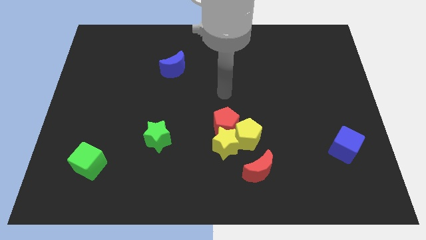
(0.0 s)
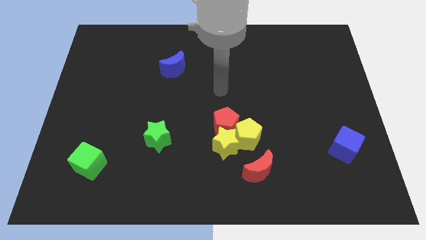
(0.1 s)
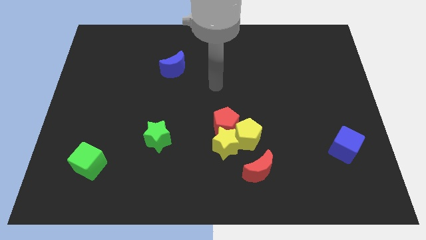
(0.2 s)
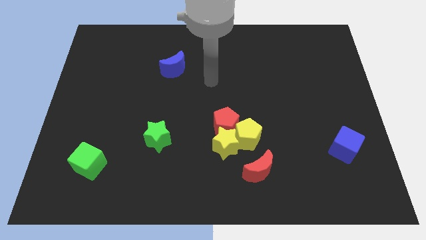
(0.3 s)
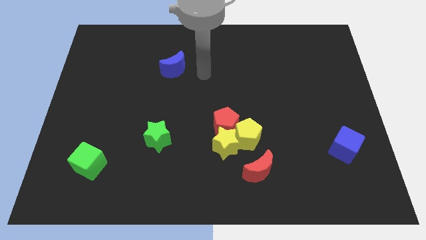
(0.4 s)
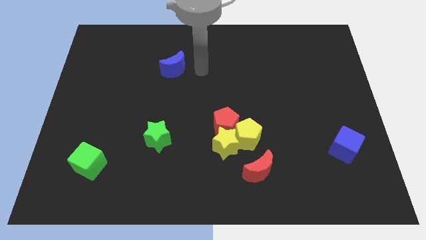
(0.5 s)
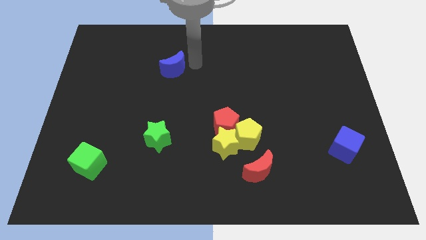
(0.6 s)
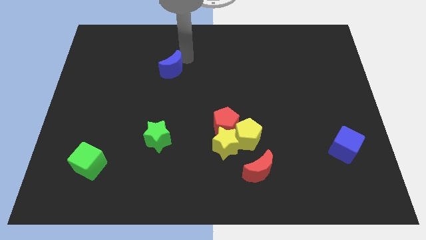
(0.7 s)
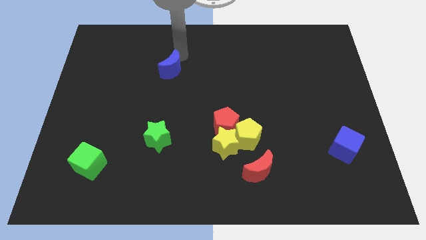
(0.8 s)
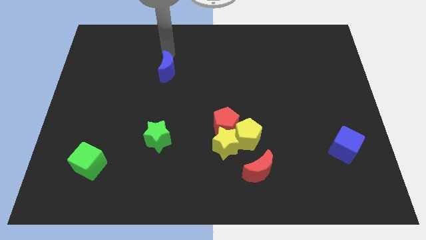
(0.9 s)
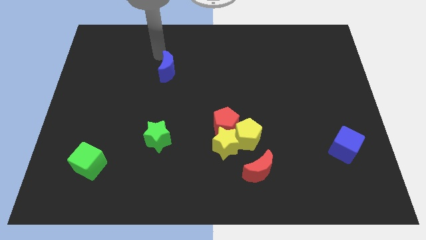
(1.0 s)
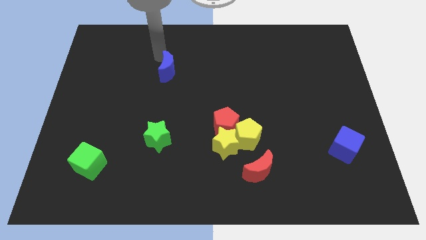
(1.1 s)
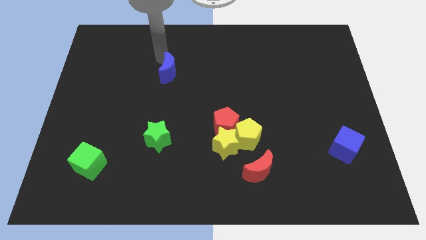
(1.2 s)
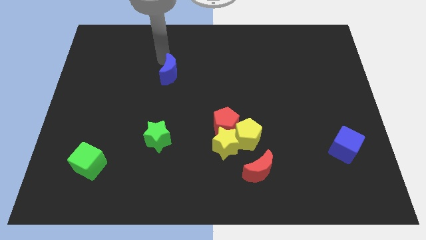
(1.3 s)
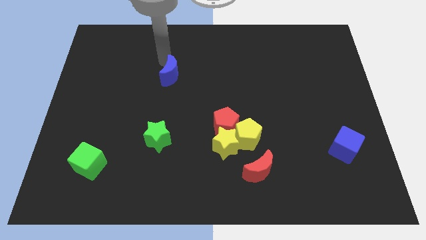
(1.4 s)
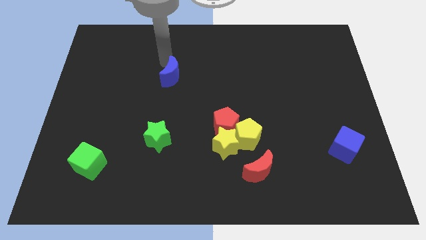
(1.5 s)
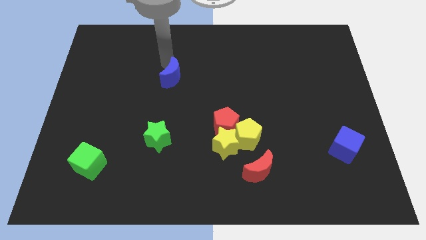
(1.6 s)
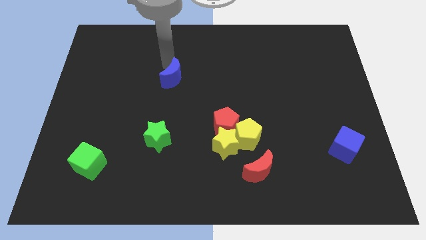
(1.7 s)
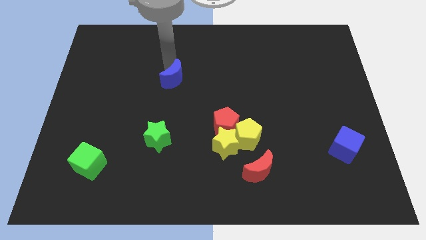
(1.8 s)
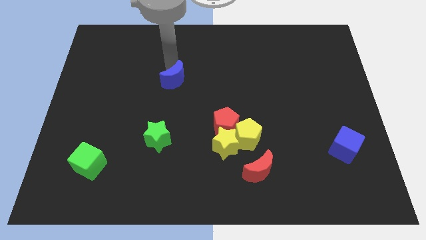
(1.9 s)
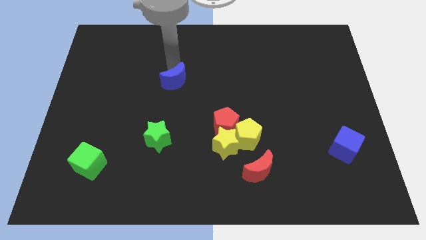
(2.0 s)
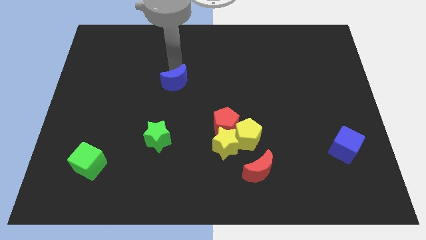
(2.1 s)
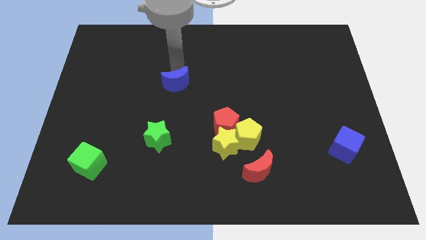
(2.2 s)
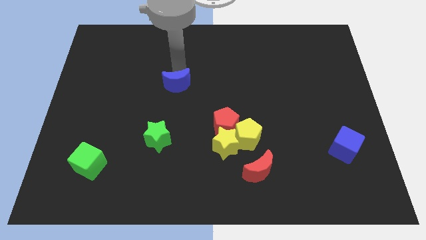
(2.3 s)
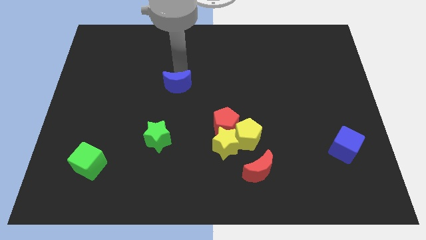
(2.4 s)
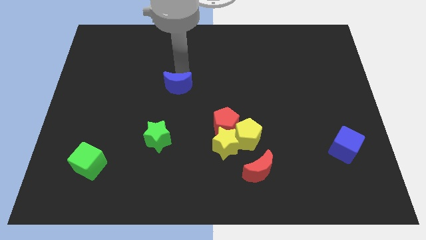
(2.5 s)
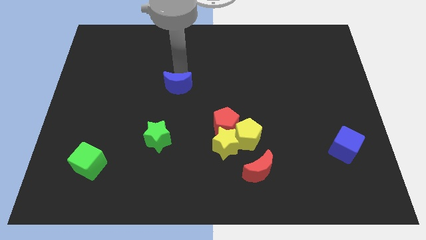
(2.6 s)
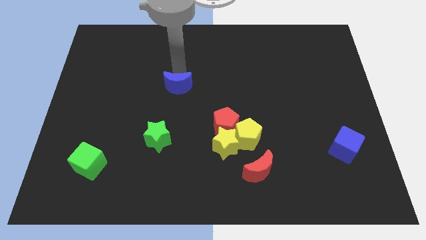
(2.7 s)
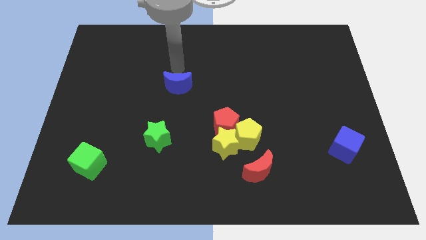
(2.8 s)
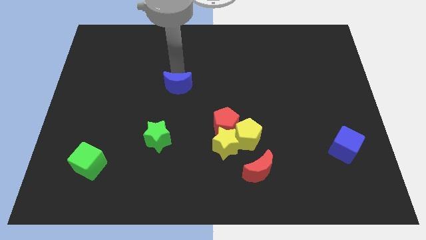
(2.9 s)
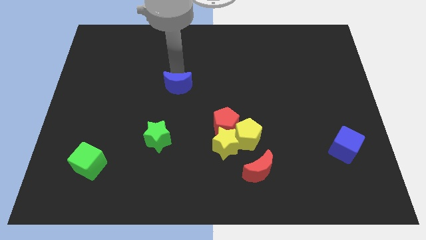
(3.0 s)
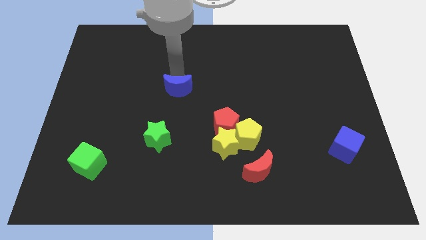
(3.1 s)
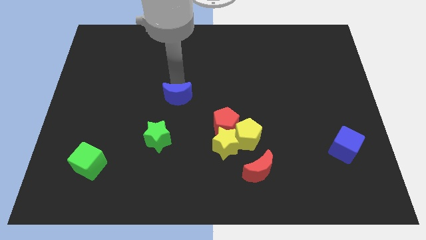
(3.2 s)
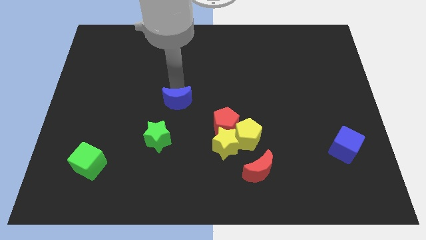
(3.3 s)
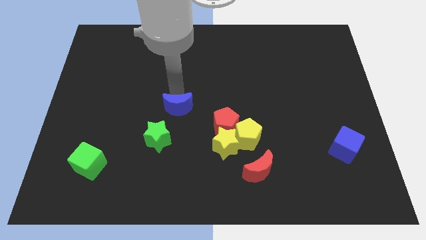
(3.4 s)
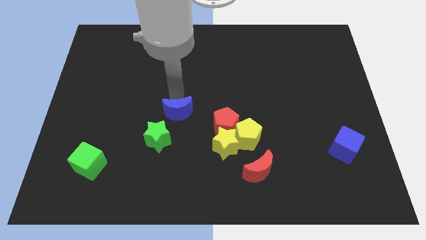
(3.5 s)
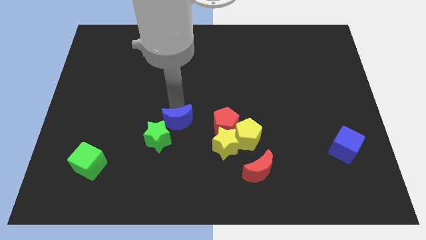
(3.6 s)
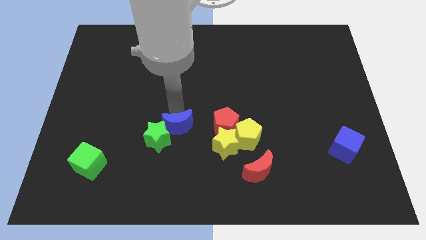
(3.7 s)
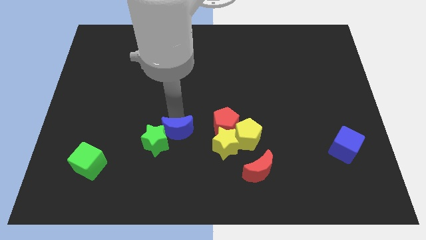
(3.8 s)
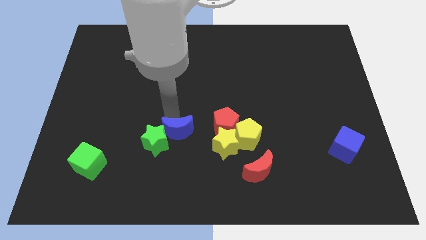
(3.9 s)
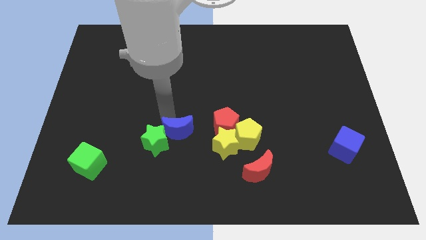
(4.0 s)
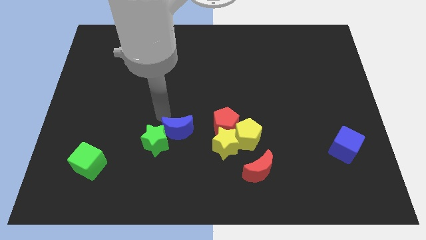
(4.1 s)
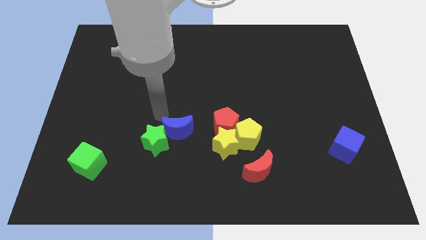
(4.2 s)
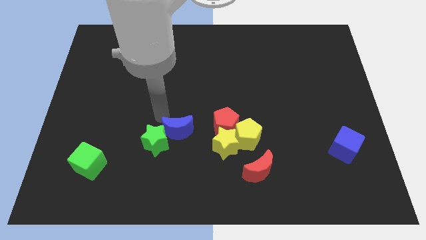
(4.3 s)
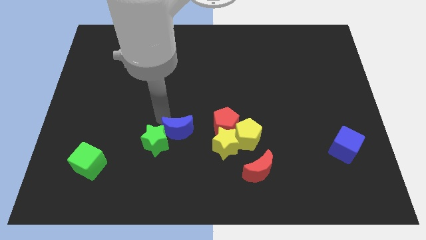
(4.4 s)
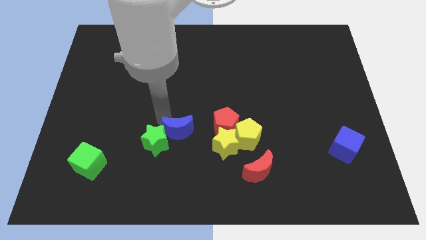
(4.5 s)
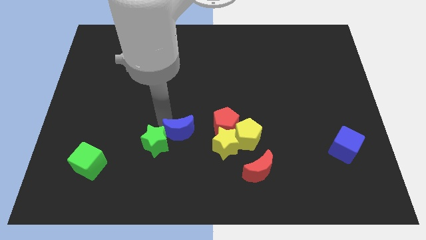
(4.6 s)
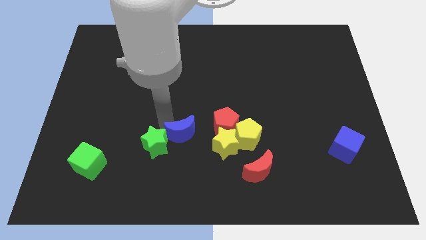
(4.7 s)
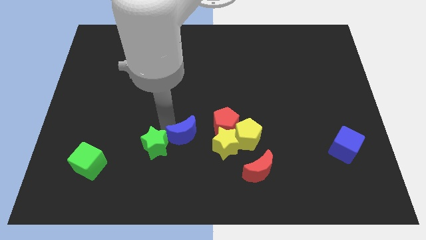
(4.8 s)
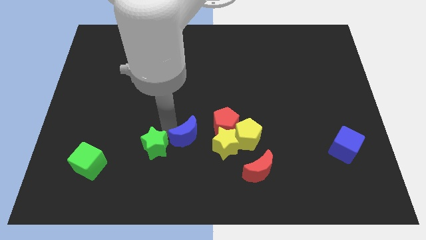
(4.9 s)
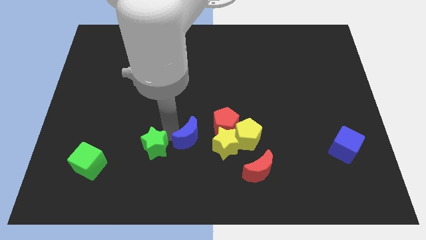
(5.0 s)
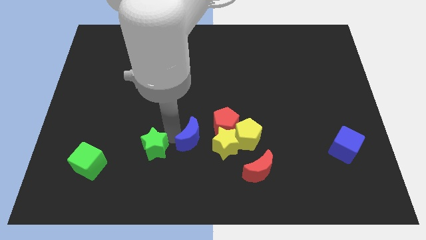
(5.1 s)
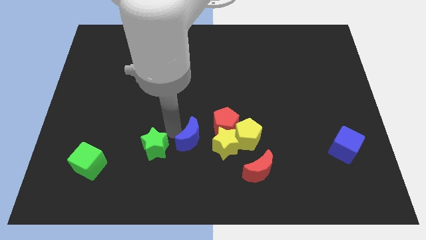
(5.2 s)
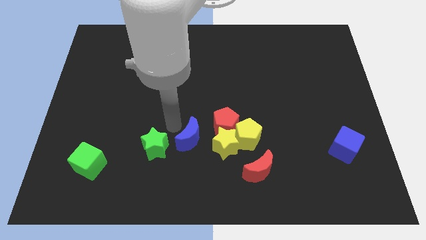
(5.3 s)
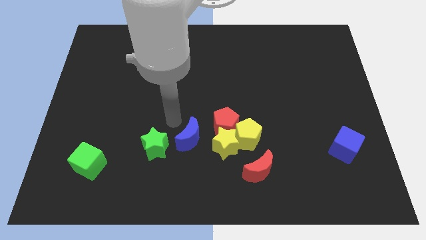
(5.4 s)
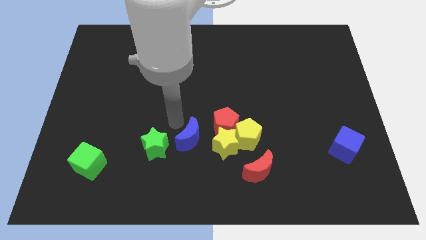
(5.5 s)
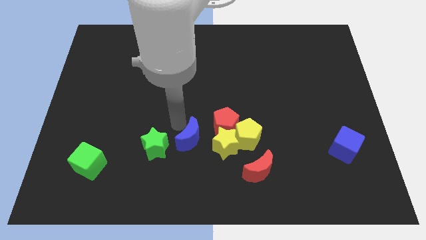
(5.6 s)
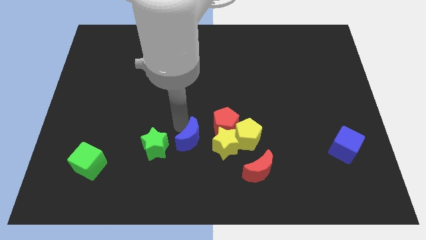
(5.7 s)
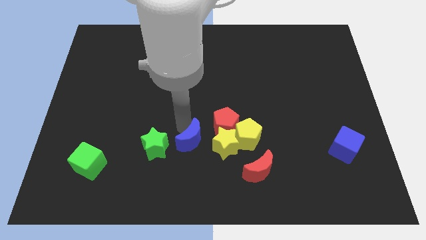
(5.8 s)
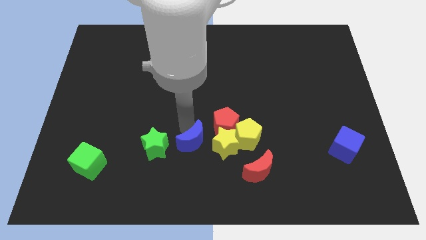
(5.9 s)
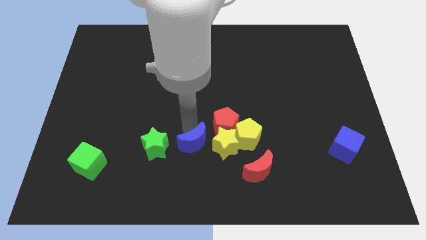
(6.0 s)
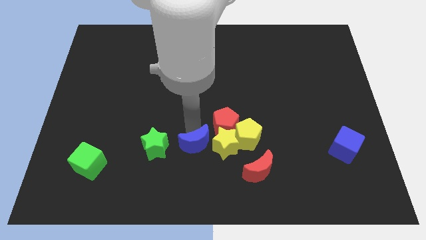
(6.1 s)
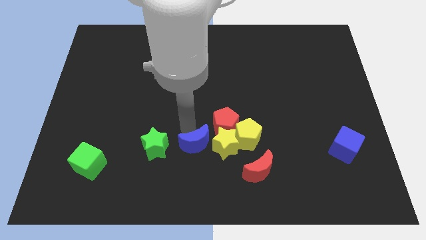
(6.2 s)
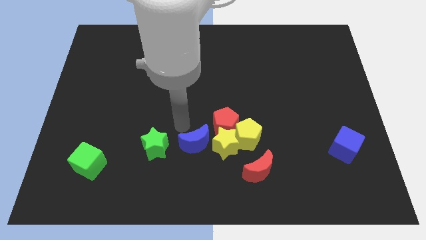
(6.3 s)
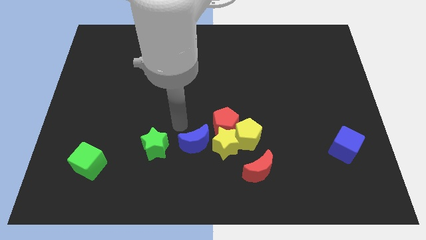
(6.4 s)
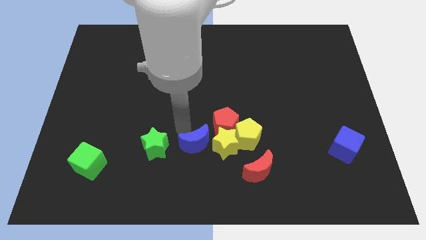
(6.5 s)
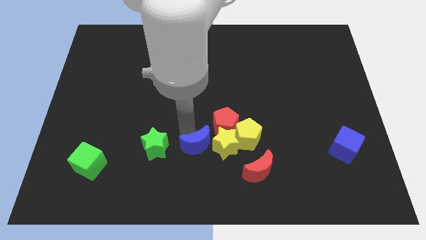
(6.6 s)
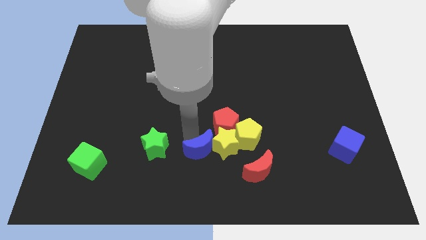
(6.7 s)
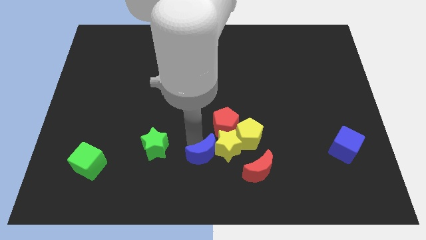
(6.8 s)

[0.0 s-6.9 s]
slide the blue moon below the red pentagon

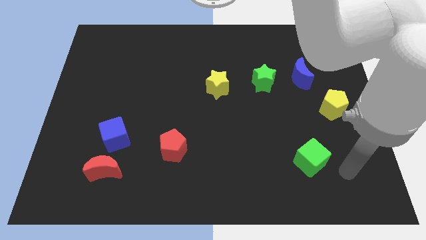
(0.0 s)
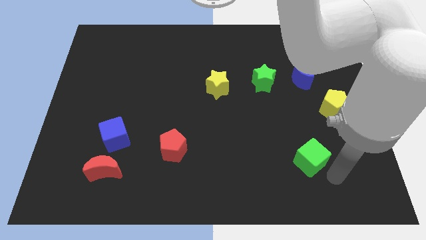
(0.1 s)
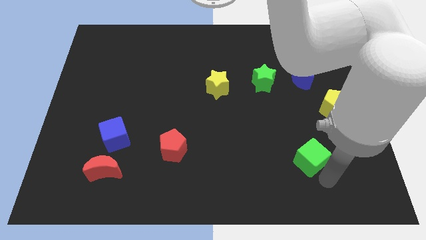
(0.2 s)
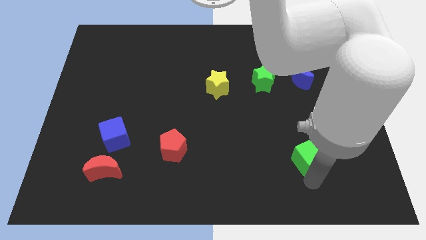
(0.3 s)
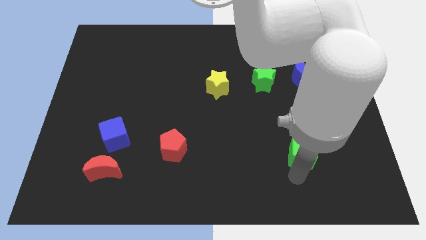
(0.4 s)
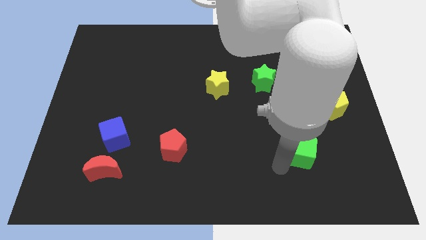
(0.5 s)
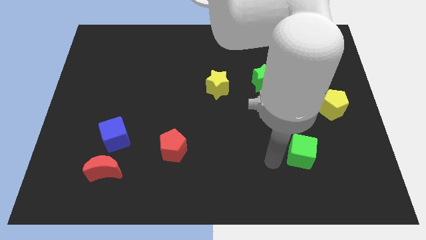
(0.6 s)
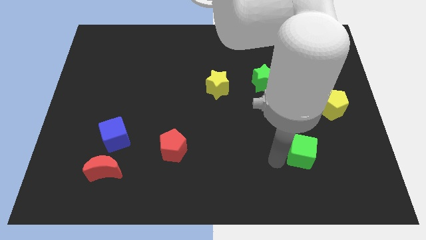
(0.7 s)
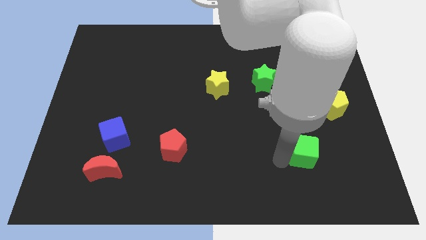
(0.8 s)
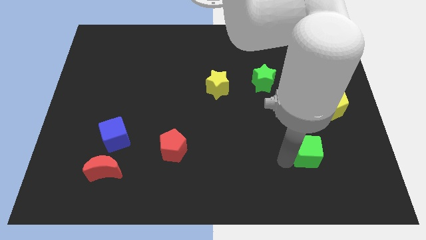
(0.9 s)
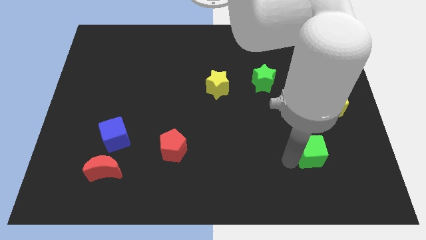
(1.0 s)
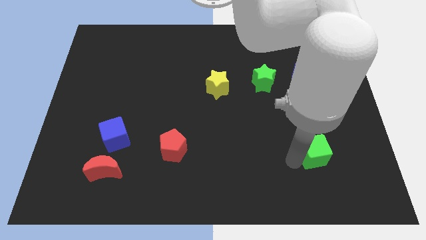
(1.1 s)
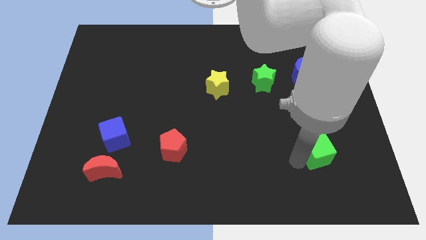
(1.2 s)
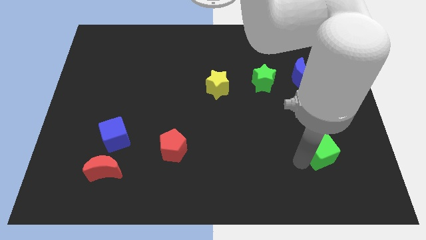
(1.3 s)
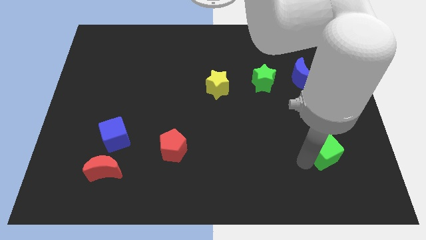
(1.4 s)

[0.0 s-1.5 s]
put the green cube below the yellow pentagon

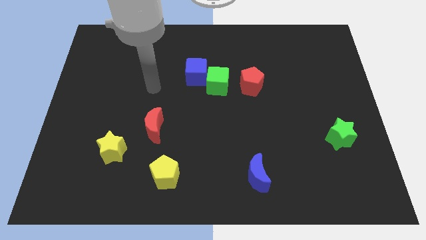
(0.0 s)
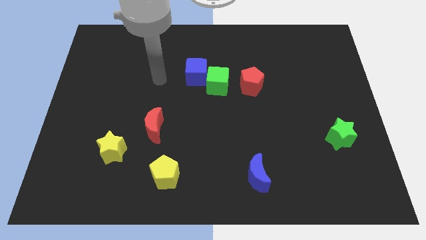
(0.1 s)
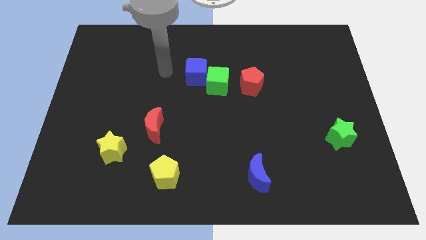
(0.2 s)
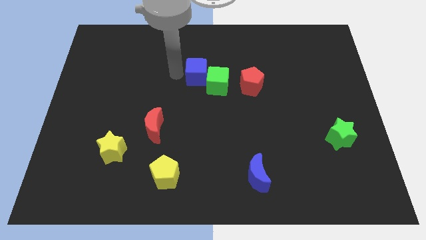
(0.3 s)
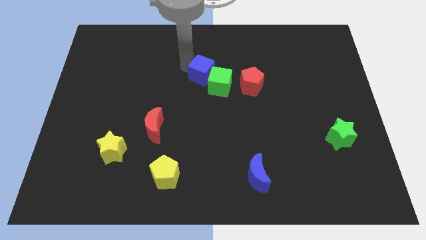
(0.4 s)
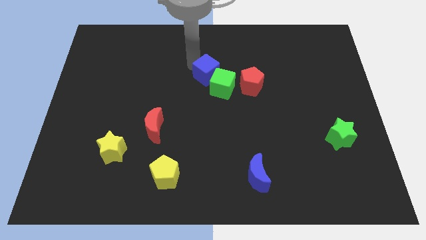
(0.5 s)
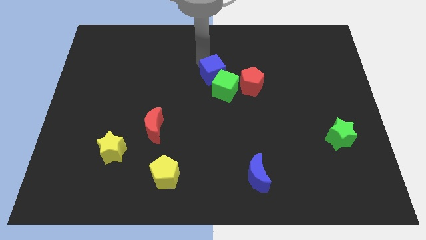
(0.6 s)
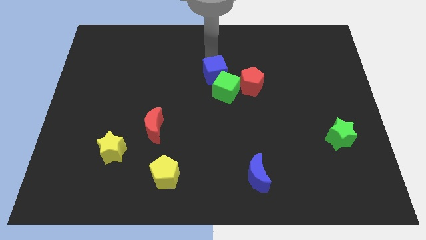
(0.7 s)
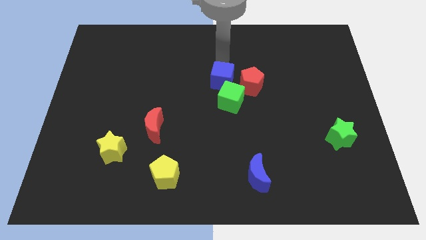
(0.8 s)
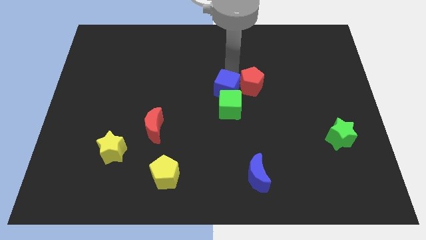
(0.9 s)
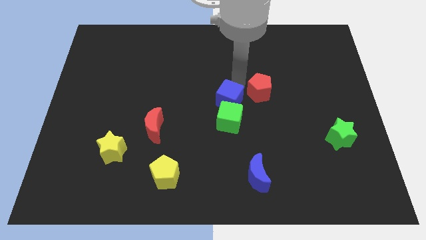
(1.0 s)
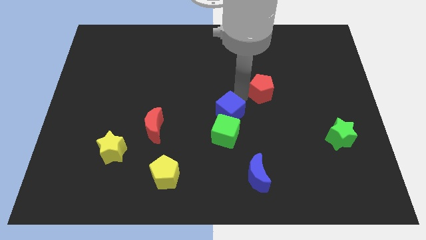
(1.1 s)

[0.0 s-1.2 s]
put the green cube just right of the red moon
